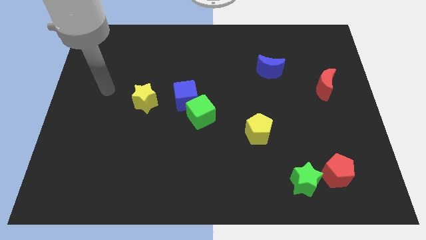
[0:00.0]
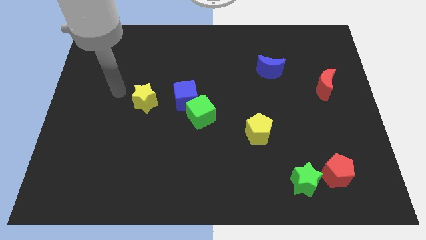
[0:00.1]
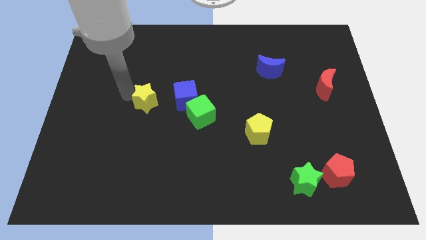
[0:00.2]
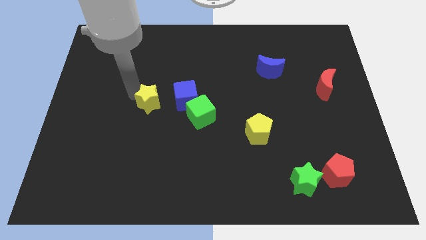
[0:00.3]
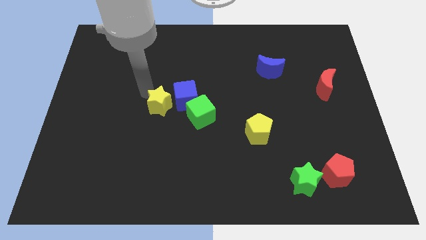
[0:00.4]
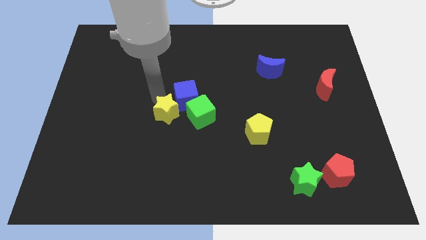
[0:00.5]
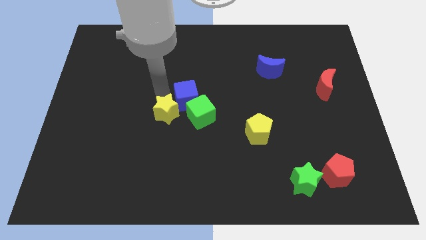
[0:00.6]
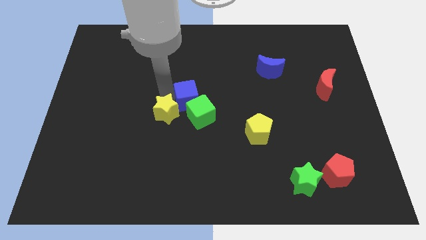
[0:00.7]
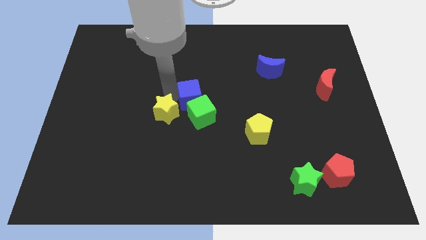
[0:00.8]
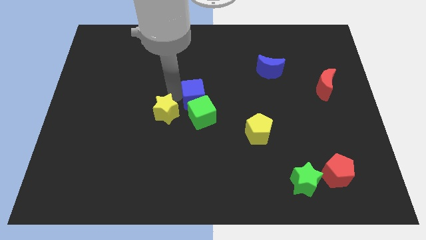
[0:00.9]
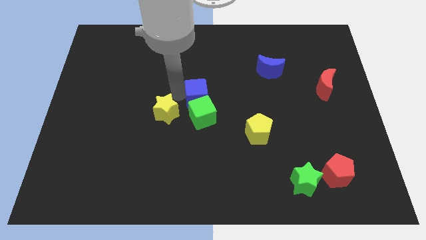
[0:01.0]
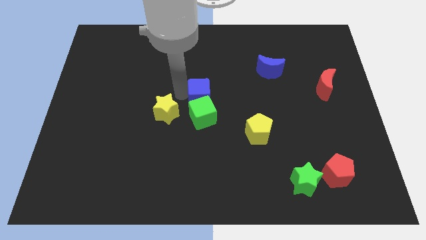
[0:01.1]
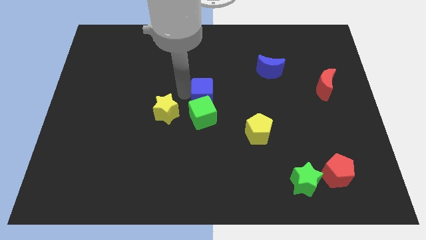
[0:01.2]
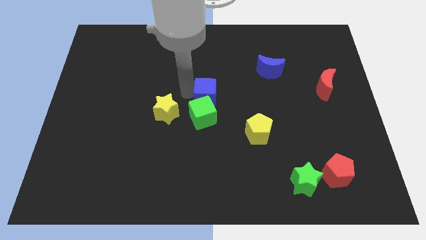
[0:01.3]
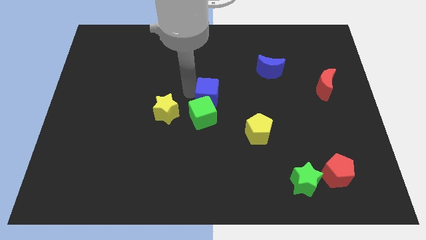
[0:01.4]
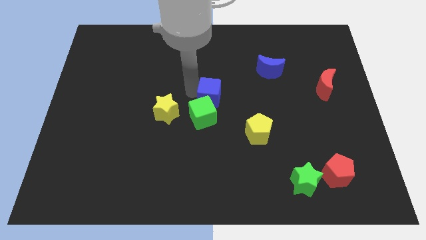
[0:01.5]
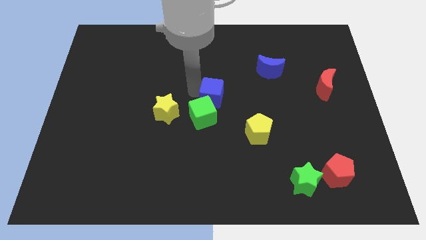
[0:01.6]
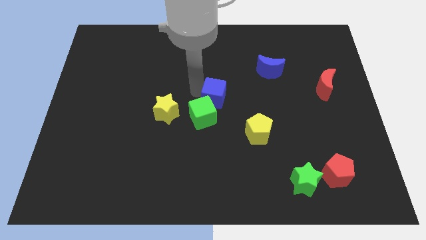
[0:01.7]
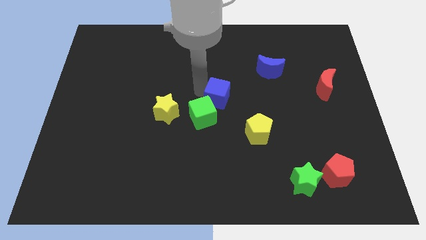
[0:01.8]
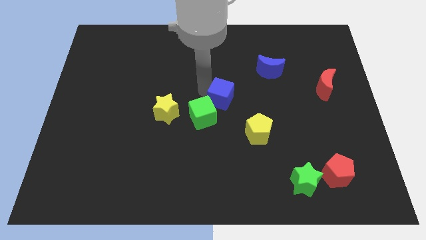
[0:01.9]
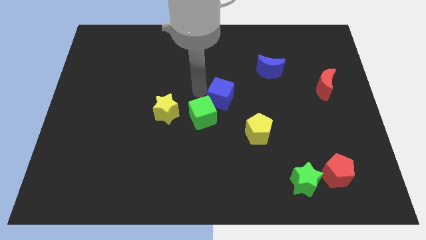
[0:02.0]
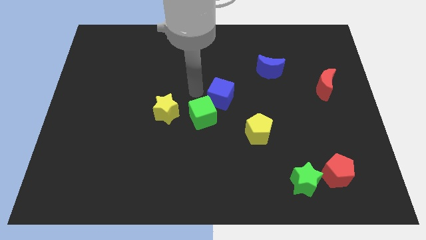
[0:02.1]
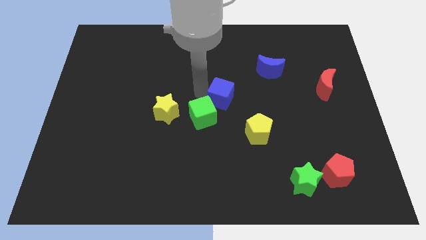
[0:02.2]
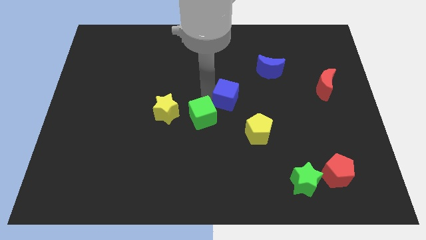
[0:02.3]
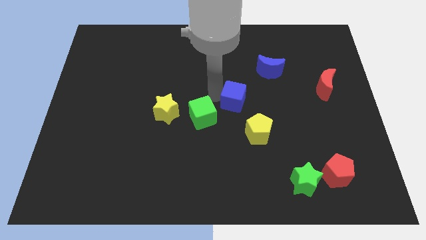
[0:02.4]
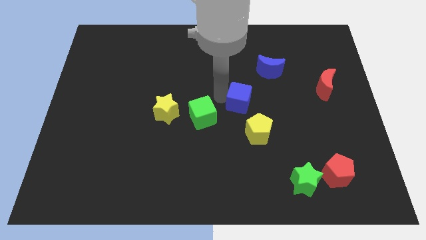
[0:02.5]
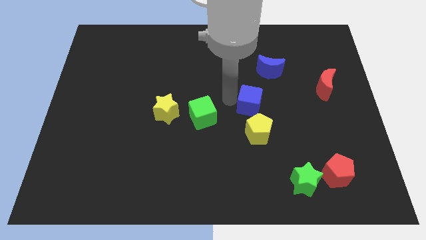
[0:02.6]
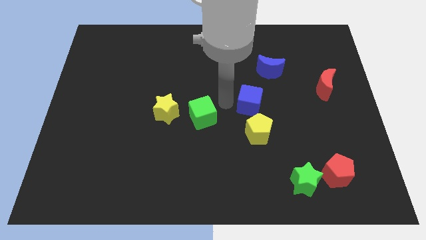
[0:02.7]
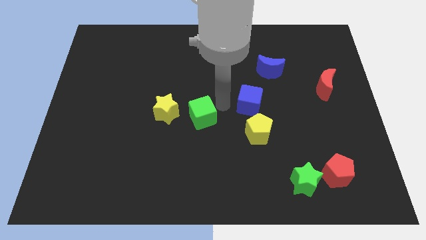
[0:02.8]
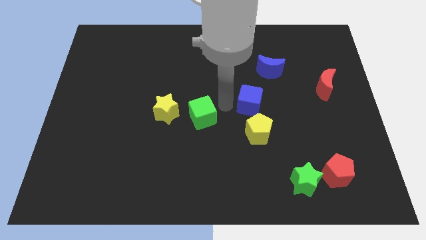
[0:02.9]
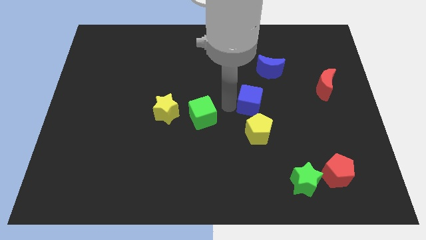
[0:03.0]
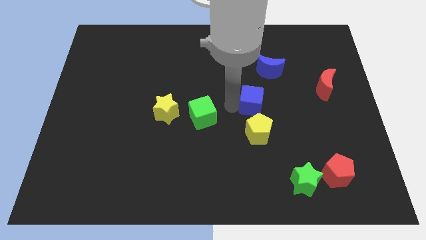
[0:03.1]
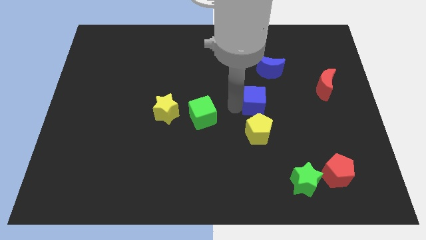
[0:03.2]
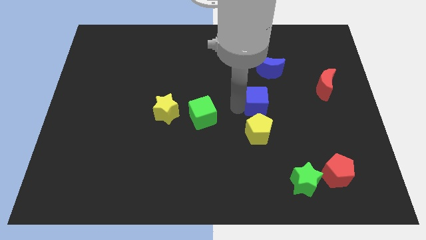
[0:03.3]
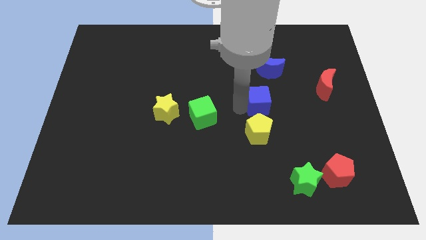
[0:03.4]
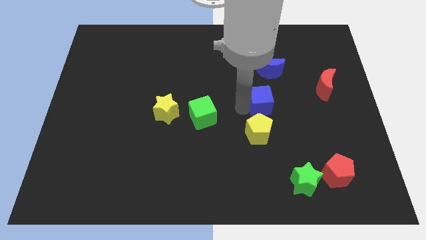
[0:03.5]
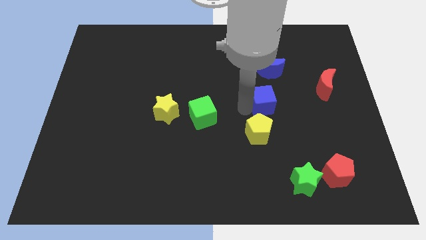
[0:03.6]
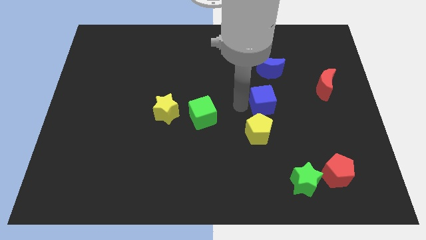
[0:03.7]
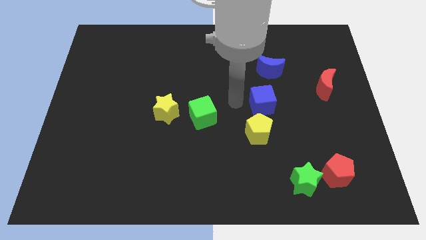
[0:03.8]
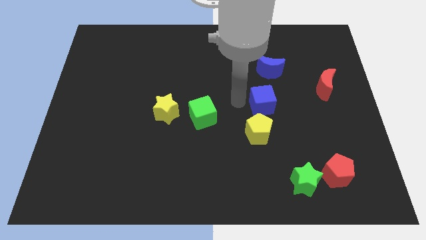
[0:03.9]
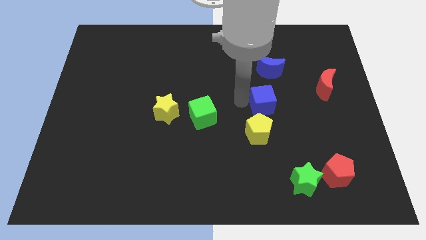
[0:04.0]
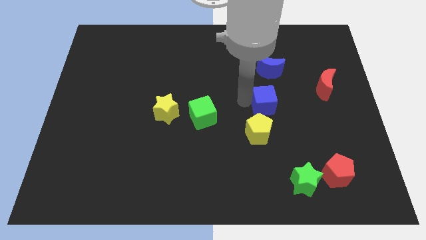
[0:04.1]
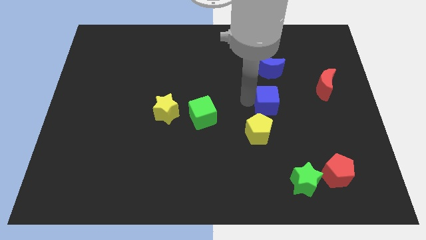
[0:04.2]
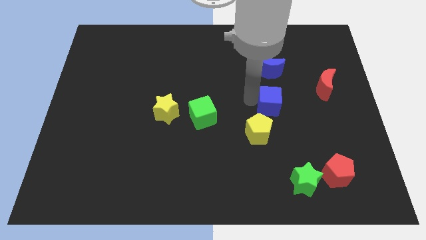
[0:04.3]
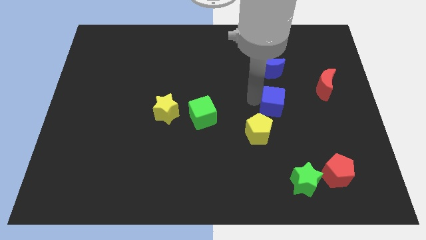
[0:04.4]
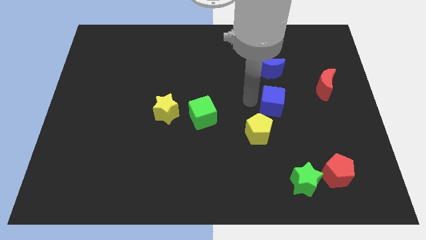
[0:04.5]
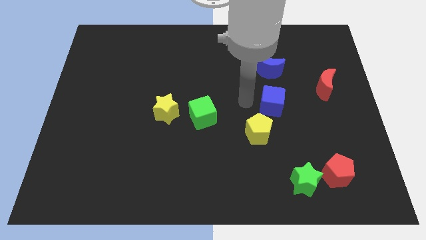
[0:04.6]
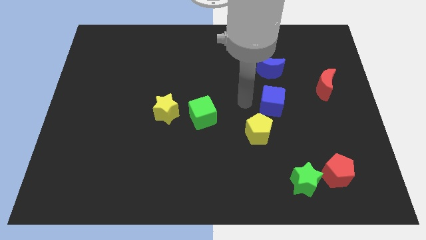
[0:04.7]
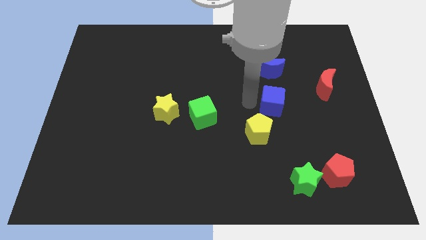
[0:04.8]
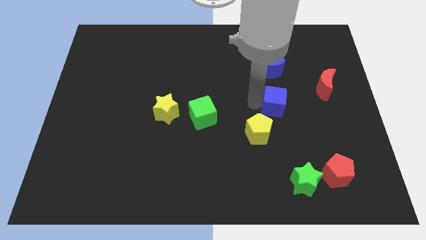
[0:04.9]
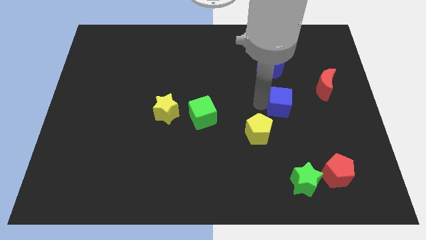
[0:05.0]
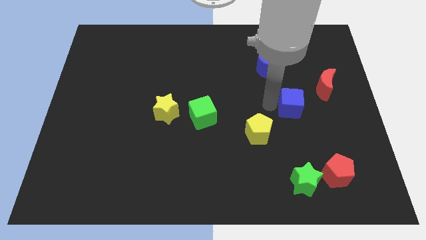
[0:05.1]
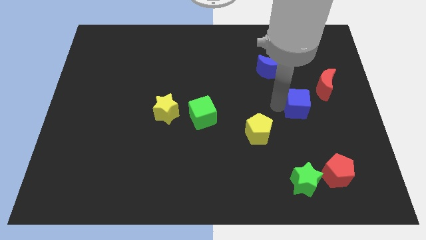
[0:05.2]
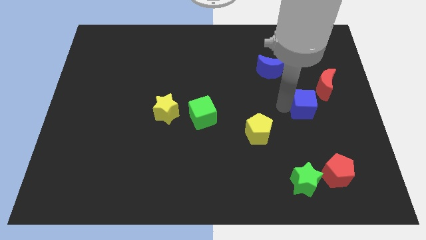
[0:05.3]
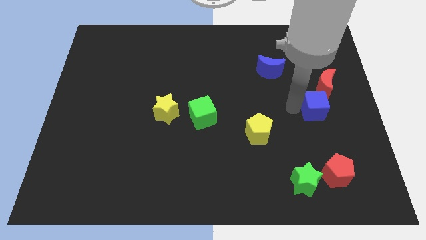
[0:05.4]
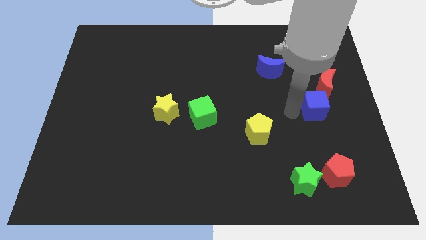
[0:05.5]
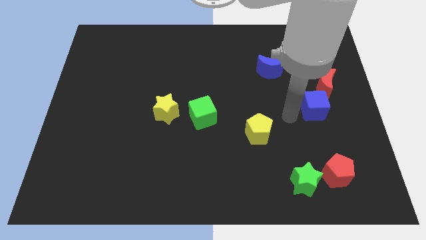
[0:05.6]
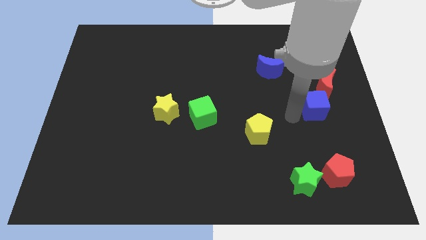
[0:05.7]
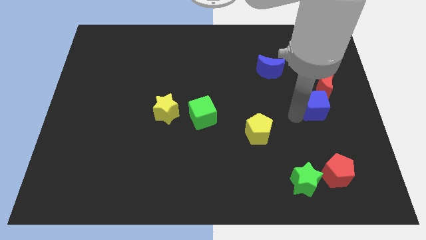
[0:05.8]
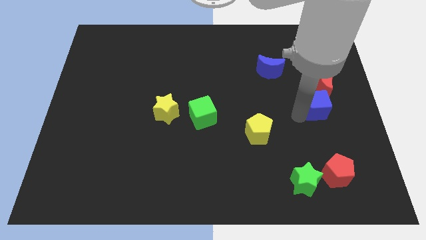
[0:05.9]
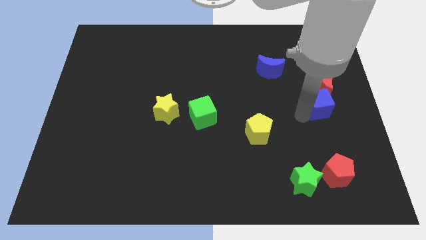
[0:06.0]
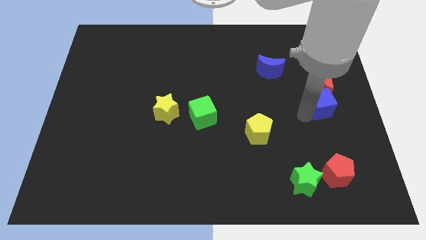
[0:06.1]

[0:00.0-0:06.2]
move the blue cube to the right side

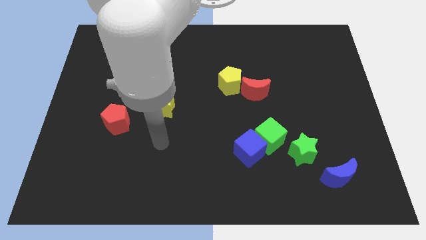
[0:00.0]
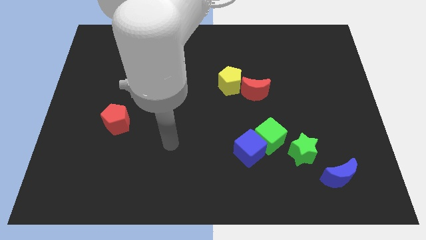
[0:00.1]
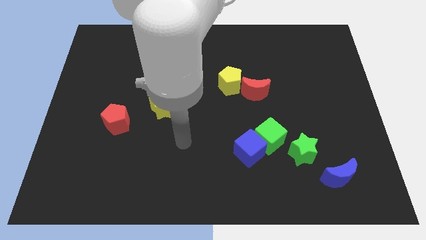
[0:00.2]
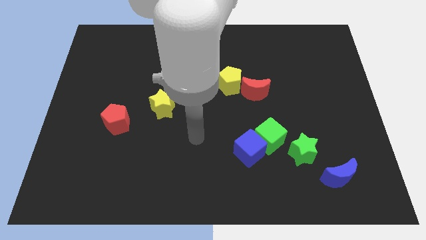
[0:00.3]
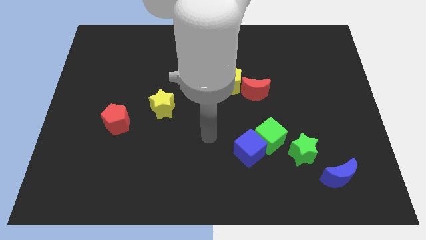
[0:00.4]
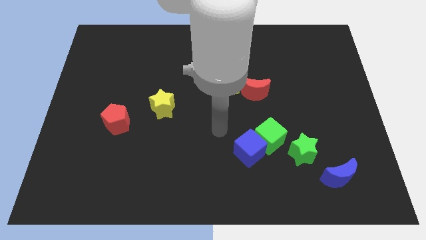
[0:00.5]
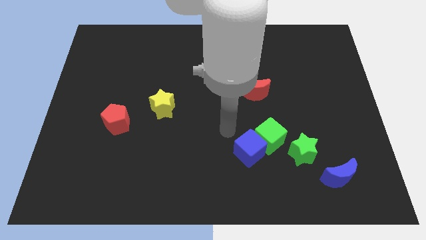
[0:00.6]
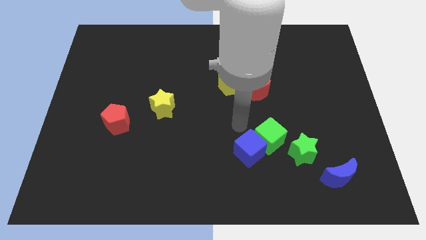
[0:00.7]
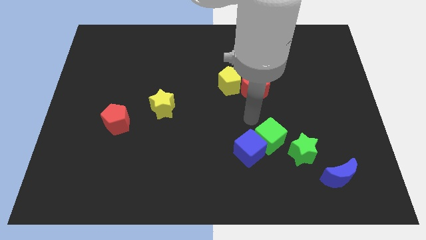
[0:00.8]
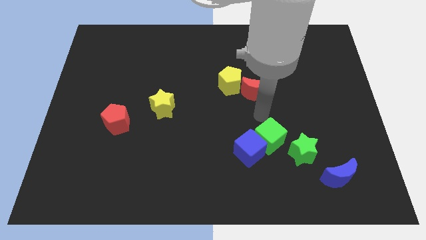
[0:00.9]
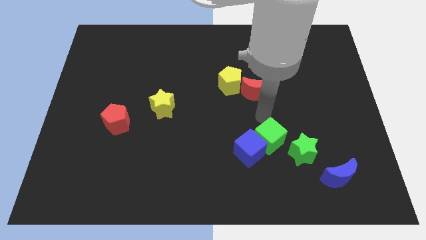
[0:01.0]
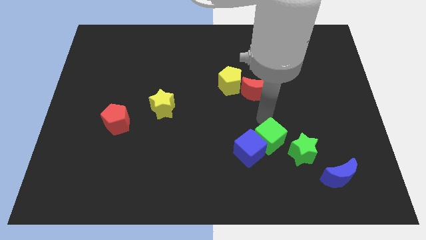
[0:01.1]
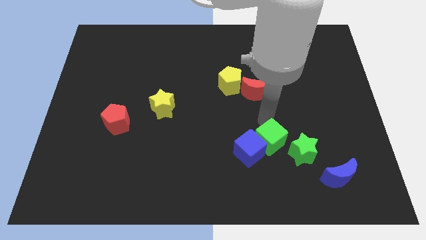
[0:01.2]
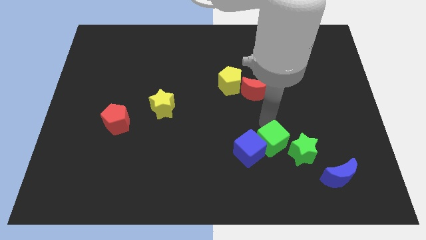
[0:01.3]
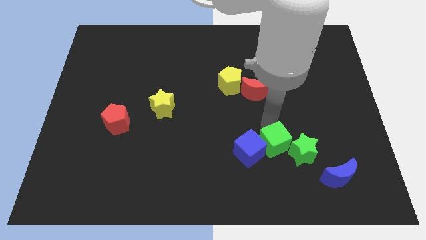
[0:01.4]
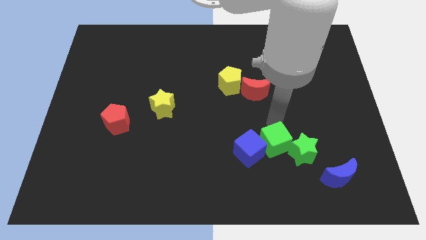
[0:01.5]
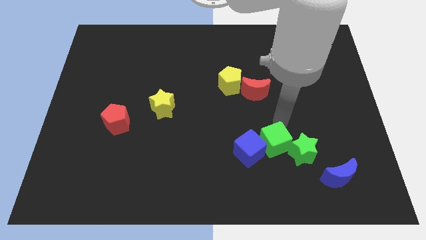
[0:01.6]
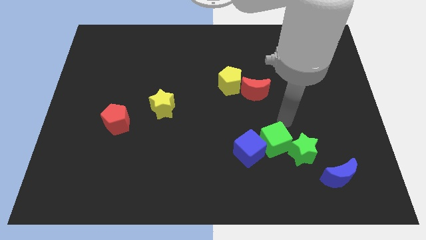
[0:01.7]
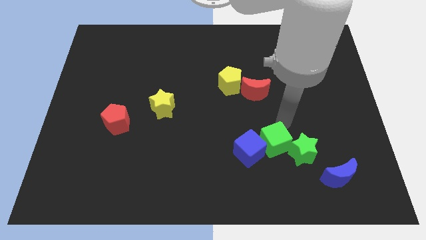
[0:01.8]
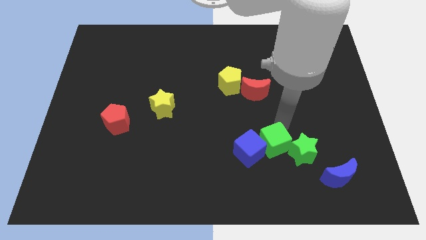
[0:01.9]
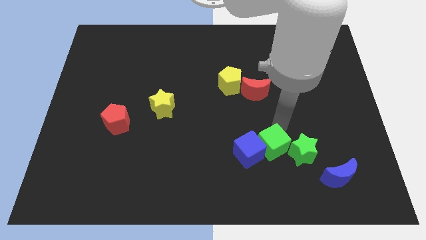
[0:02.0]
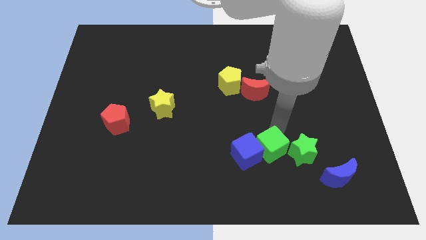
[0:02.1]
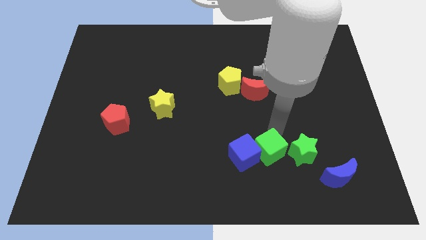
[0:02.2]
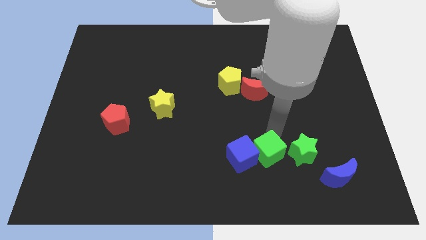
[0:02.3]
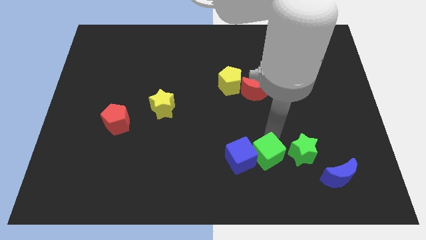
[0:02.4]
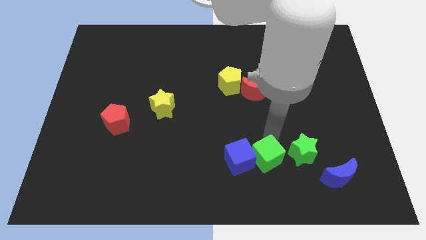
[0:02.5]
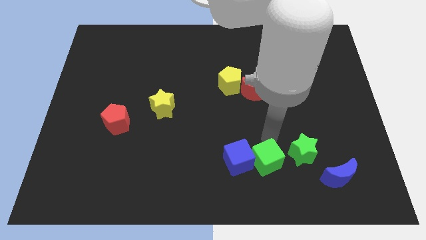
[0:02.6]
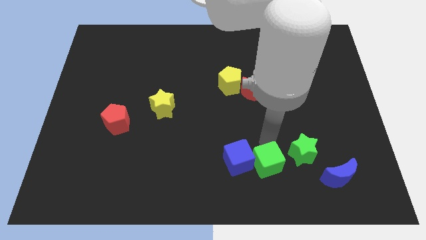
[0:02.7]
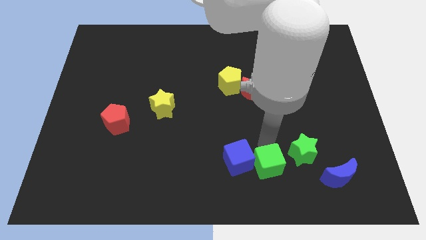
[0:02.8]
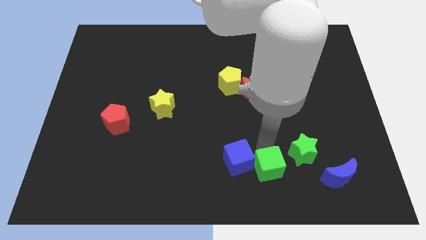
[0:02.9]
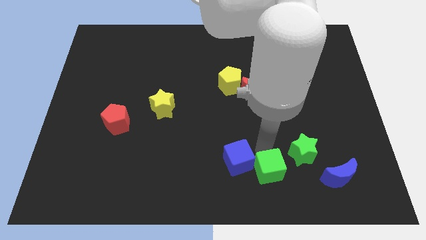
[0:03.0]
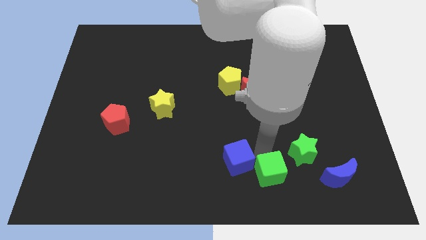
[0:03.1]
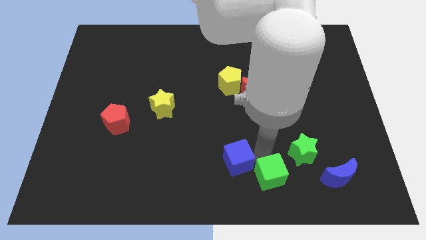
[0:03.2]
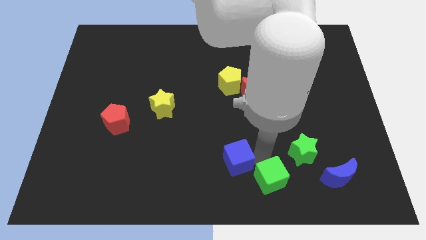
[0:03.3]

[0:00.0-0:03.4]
put the green cube to the bottom
